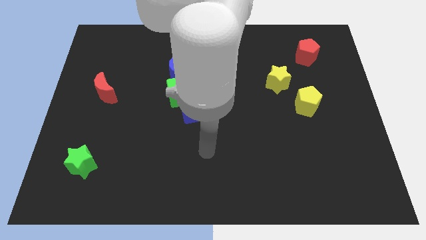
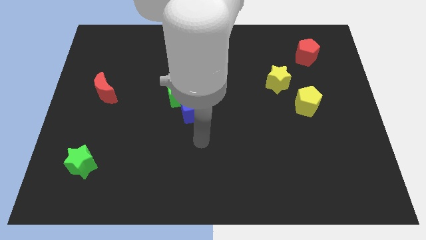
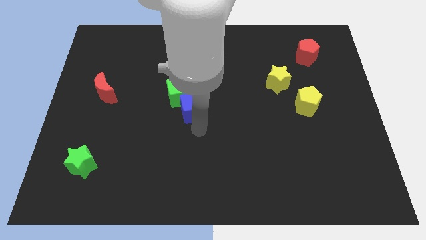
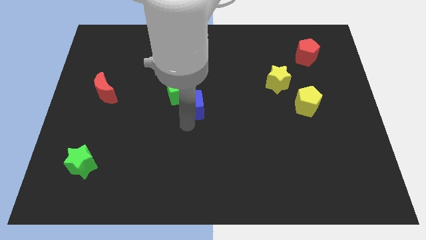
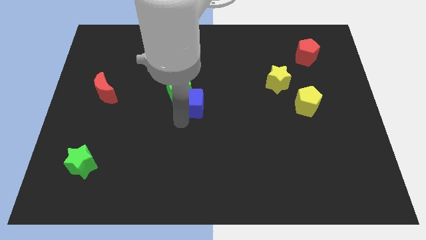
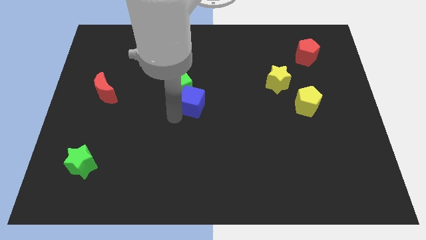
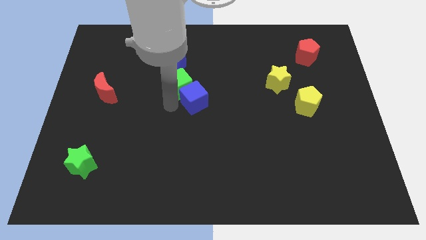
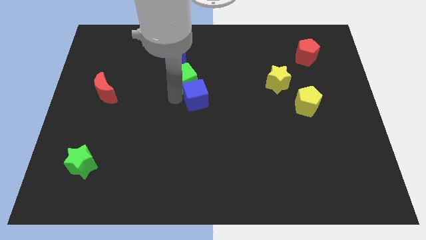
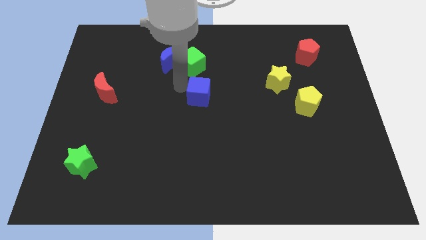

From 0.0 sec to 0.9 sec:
pull the blue cube apart from the green cube

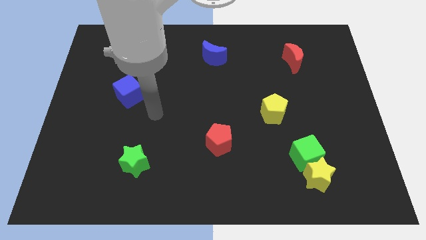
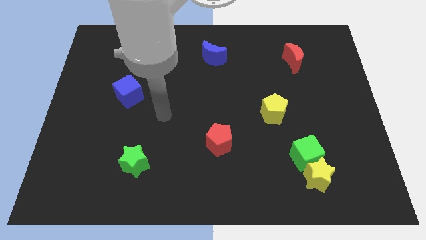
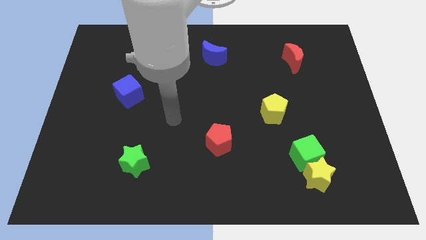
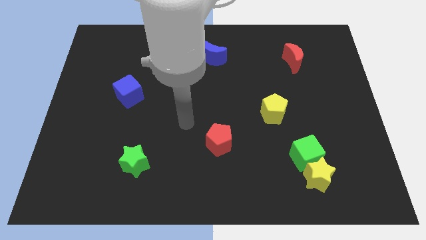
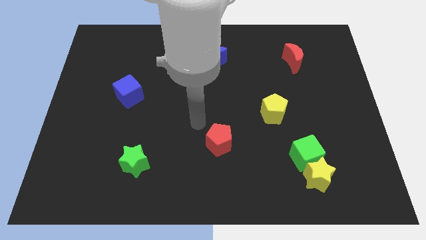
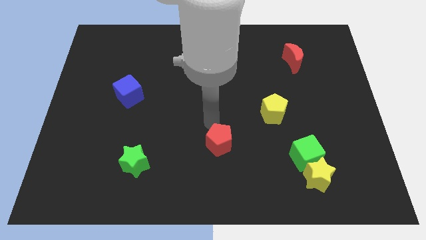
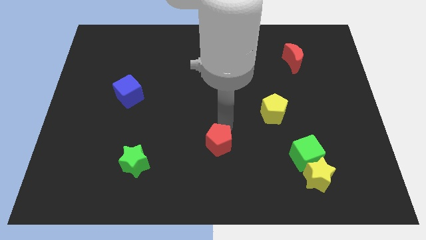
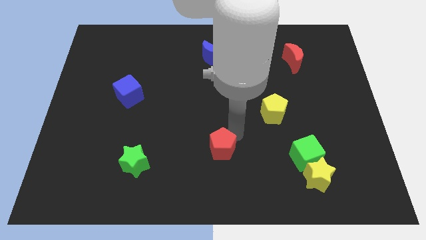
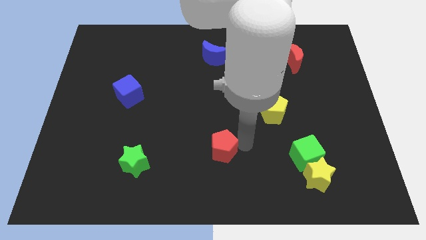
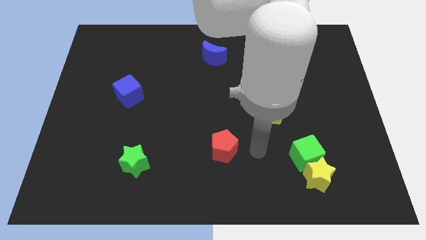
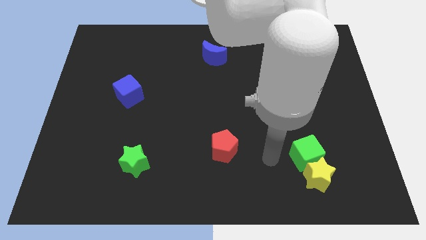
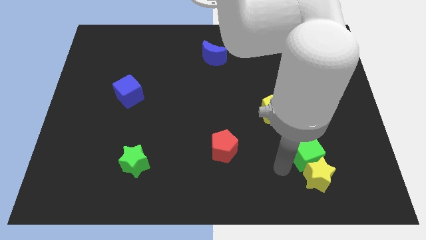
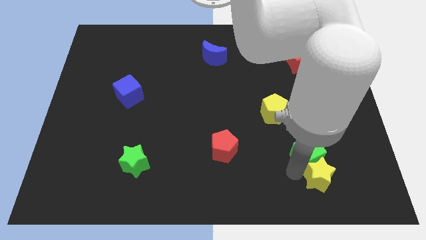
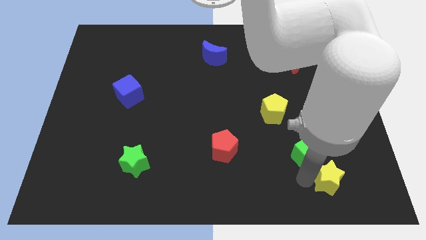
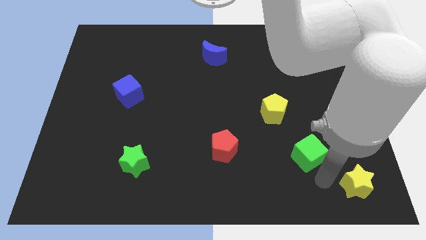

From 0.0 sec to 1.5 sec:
pull the green cube apart from the yellow star

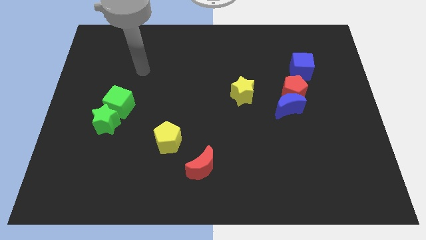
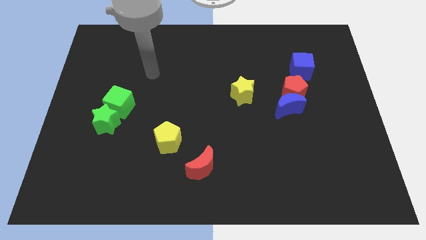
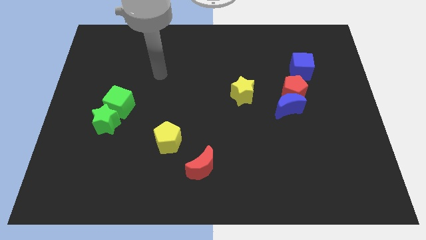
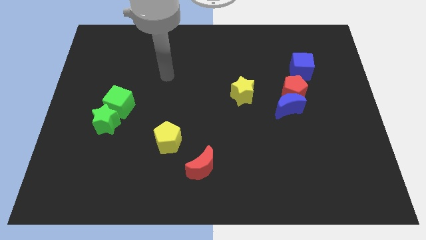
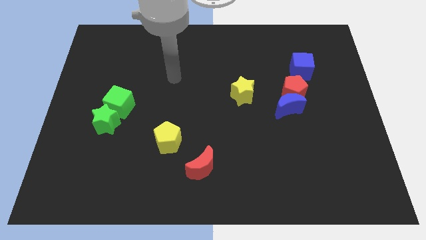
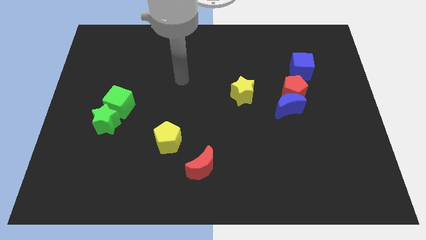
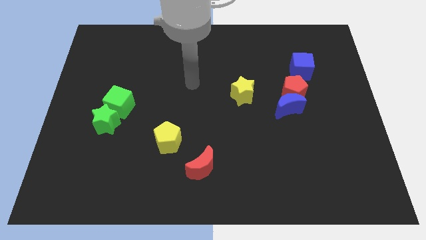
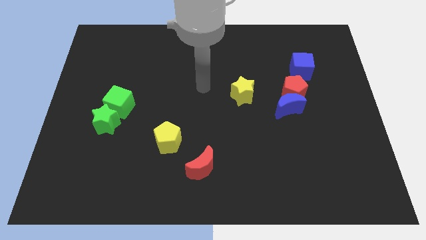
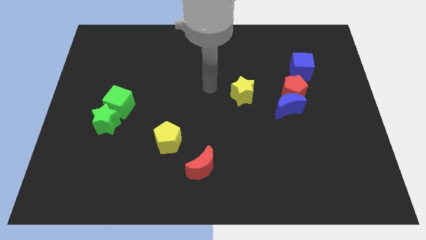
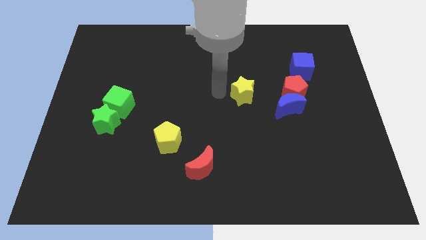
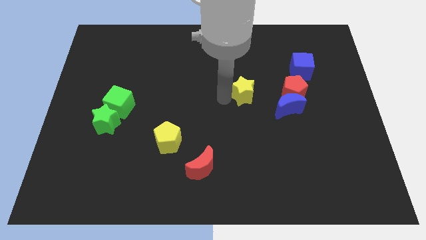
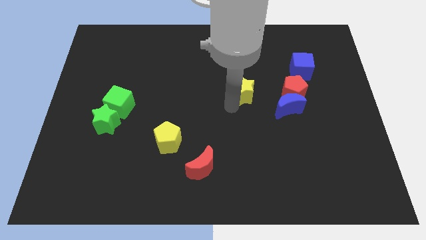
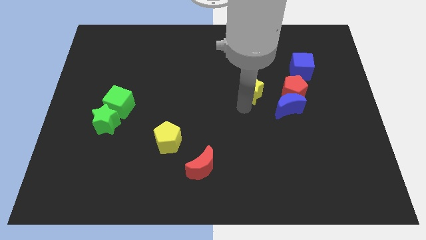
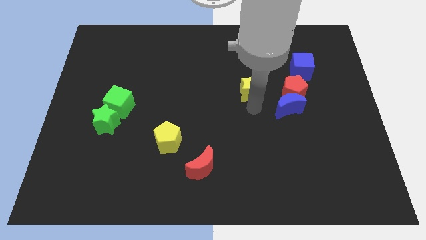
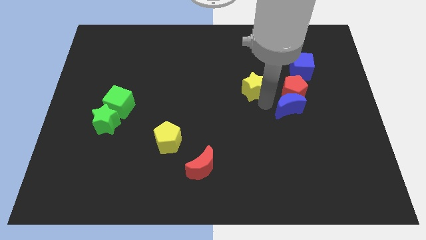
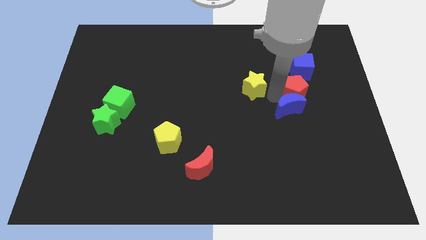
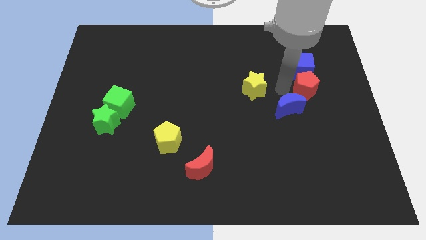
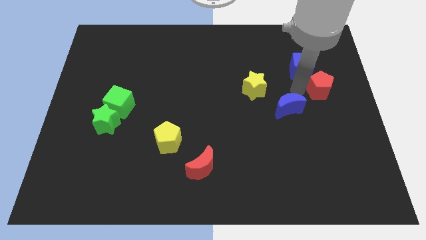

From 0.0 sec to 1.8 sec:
separate the blue moon from the red pentagon

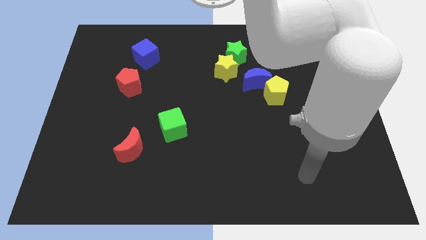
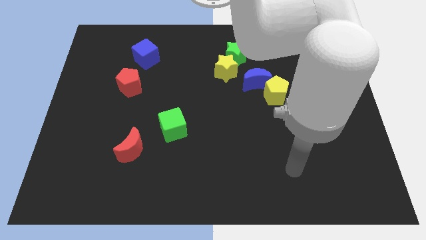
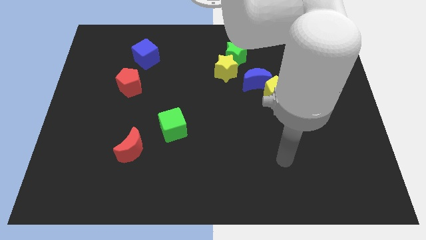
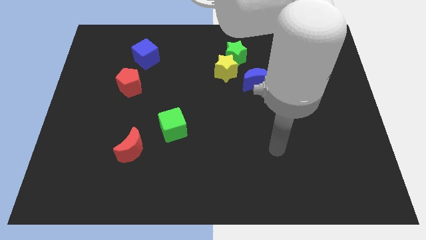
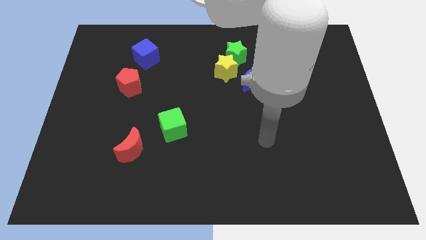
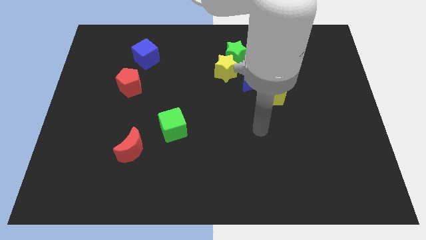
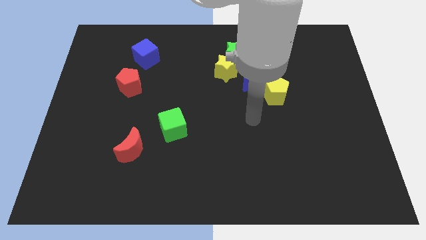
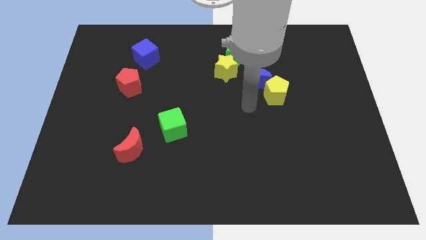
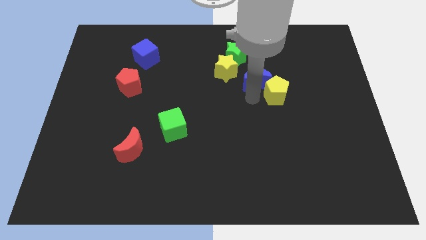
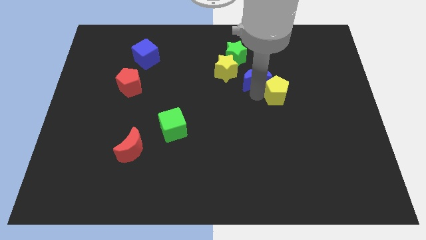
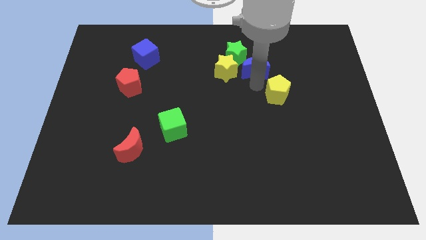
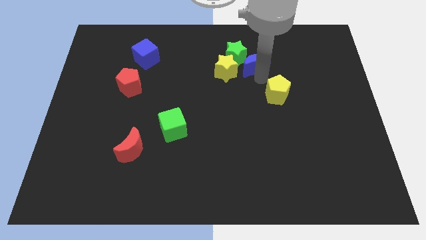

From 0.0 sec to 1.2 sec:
move the yellow pentagon away from the blue moon

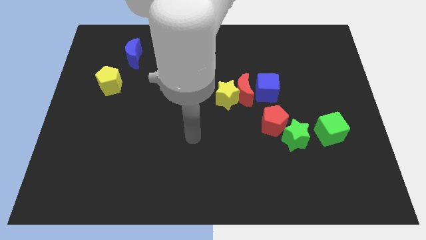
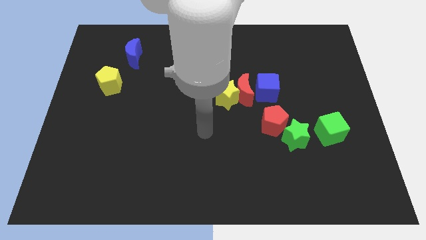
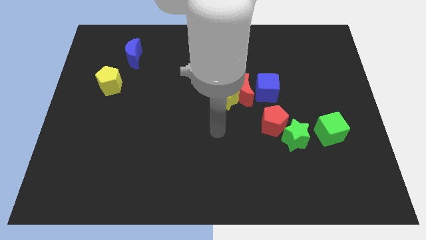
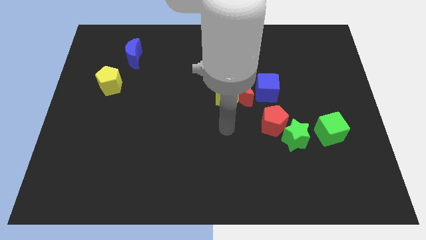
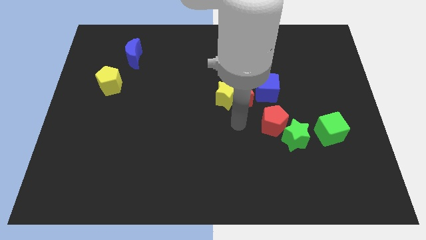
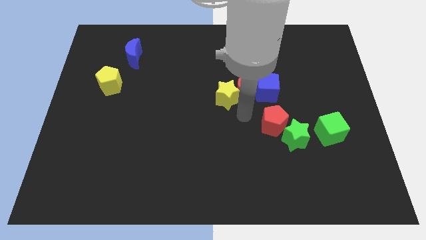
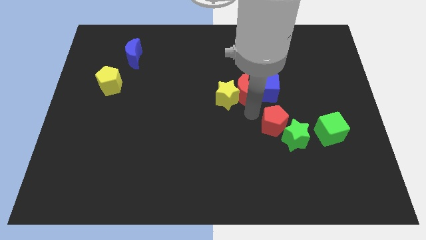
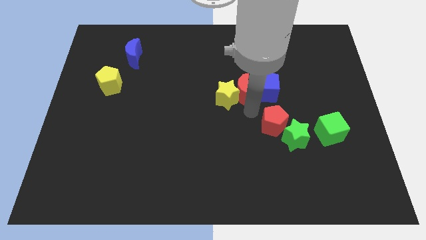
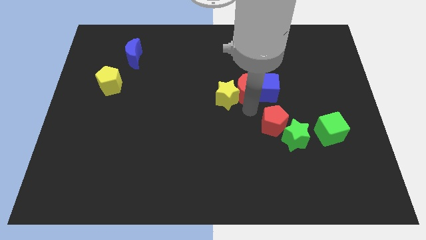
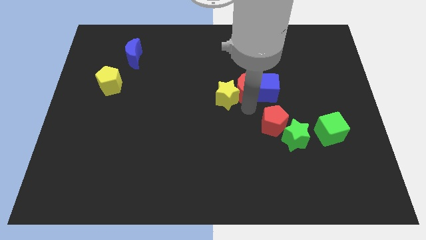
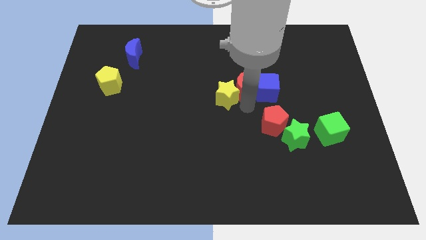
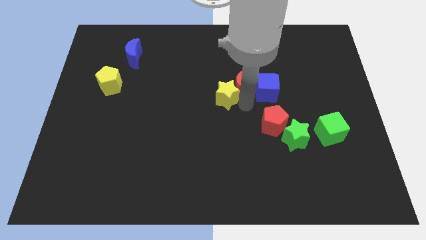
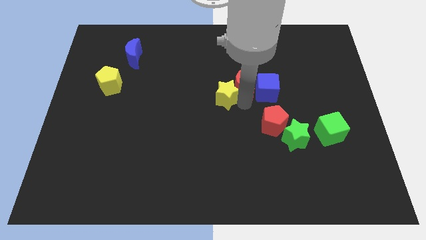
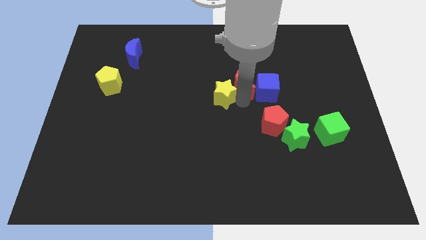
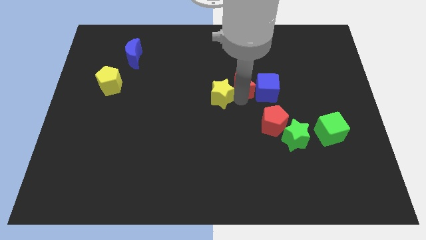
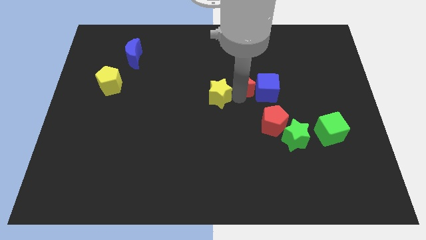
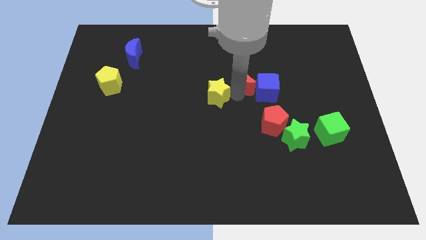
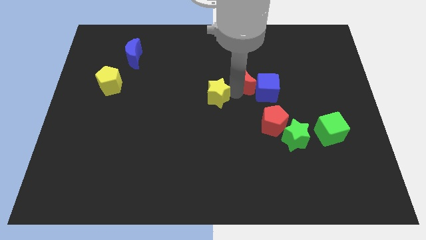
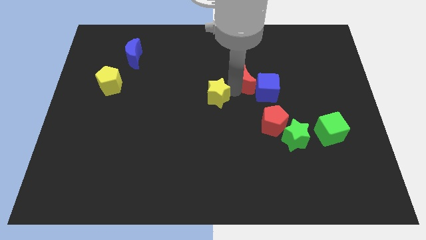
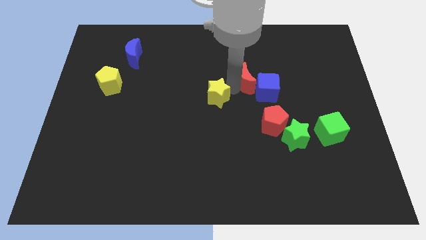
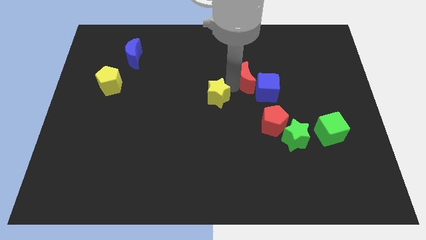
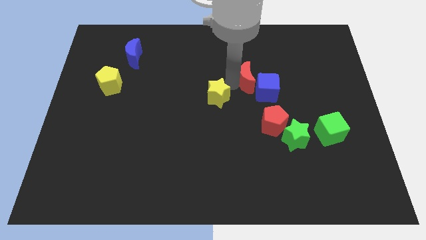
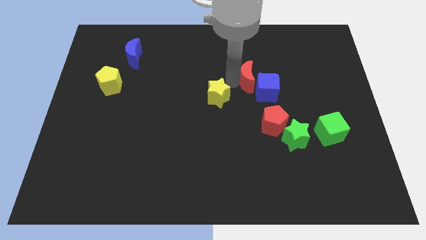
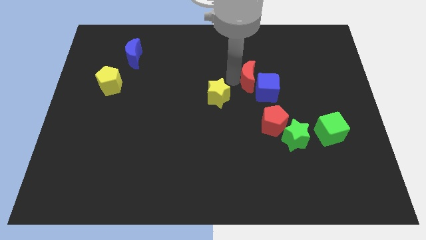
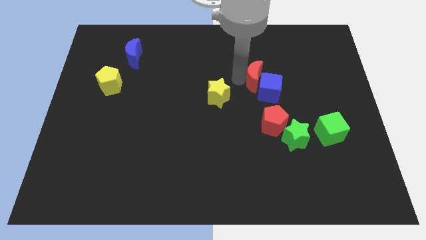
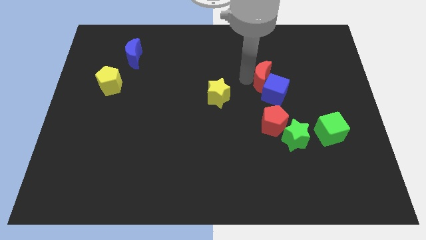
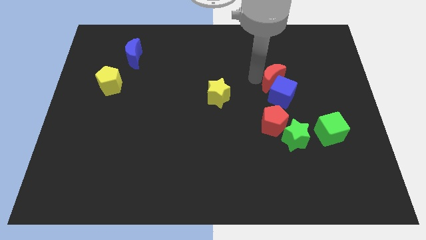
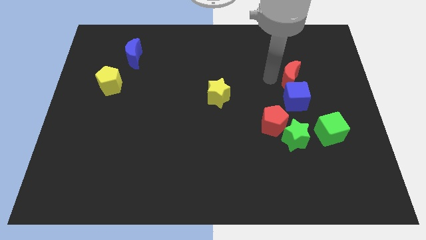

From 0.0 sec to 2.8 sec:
pull the red moon apart from the yellow star and blue cube

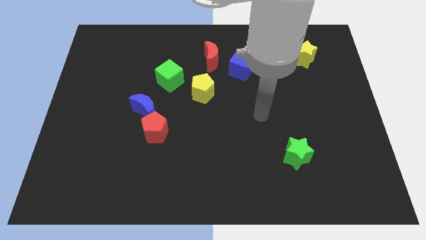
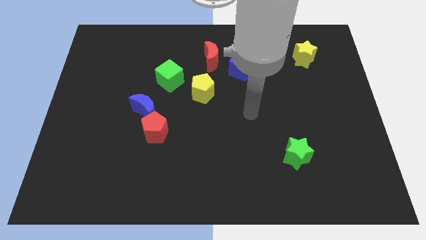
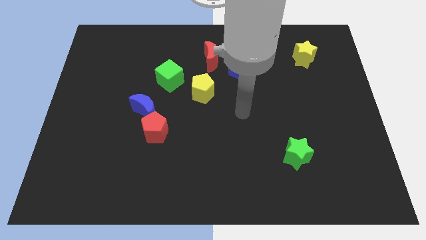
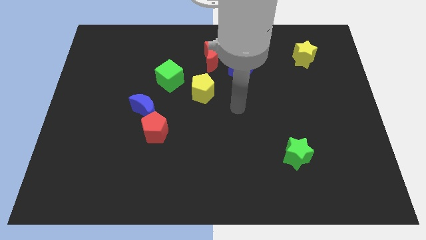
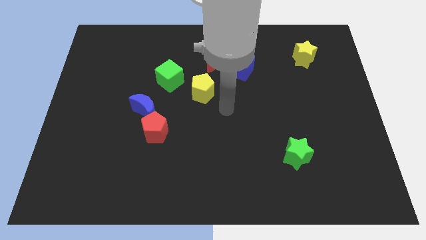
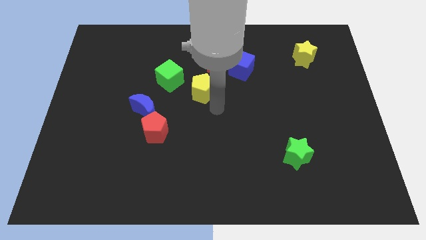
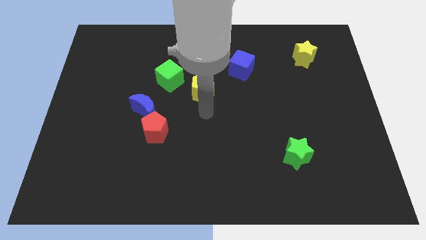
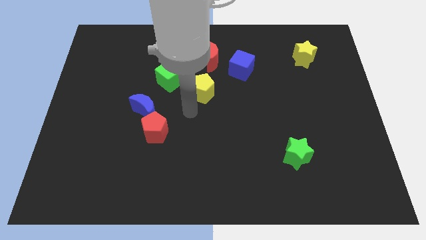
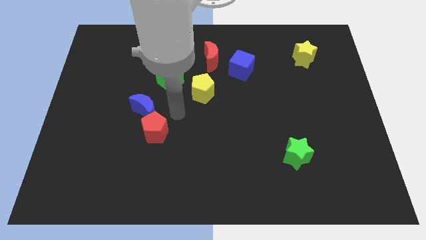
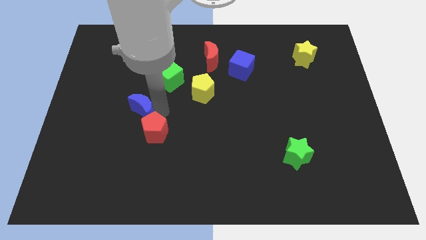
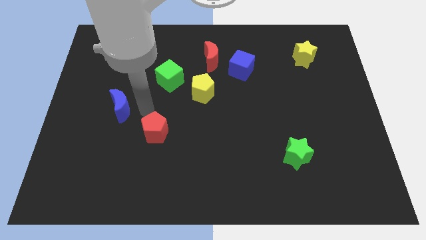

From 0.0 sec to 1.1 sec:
move the red pentagon away from the blue moon
